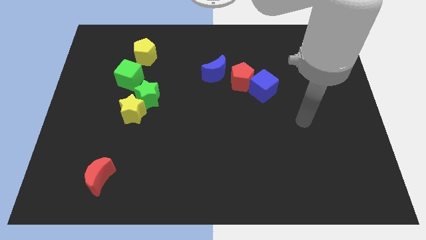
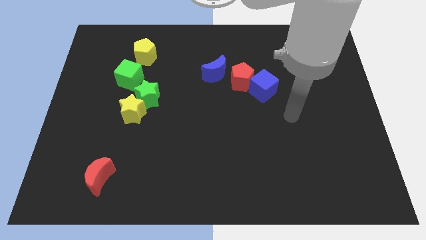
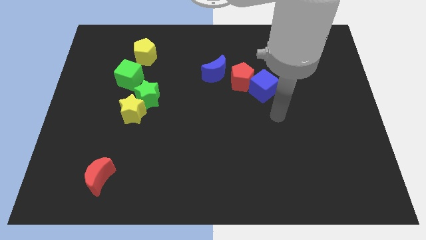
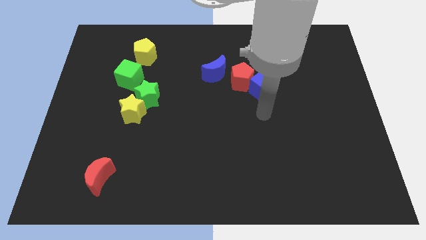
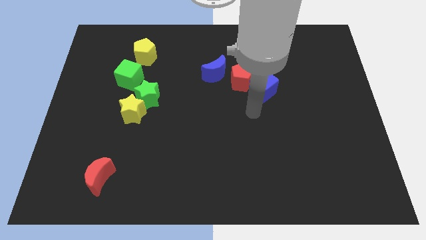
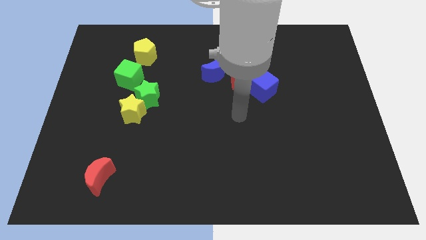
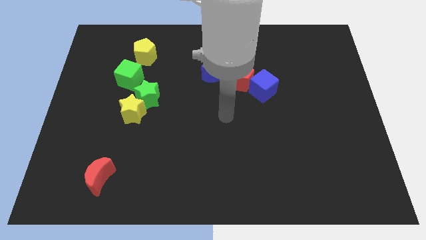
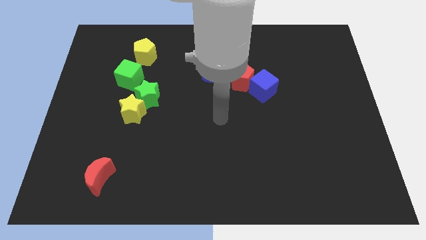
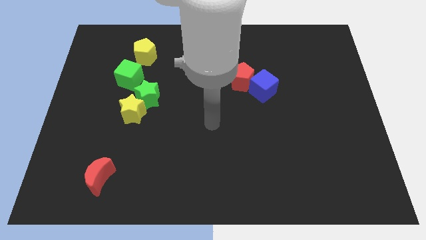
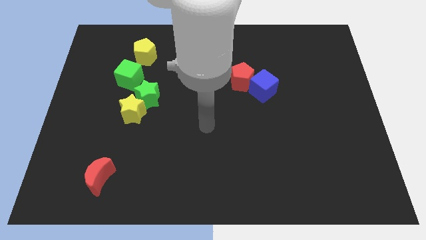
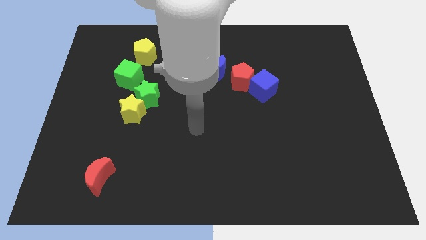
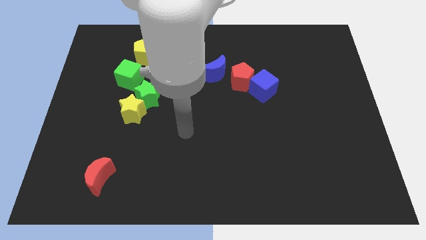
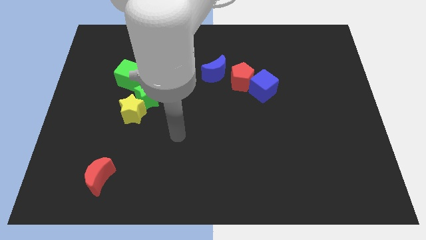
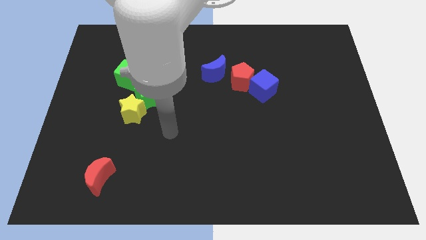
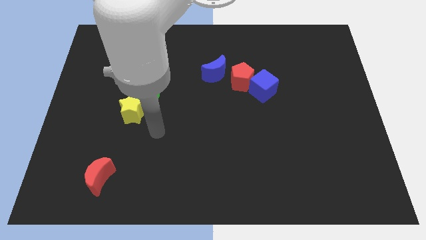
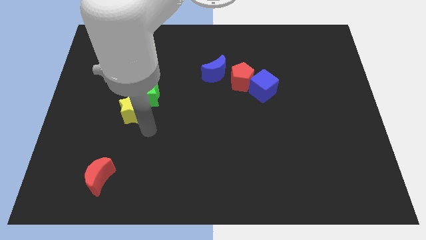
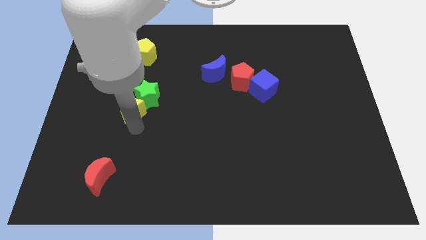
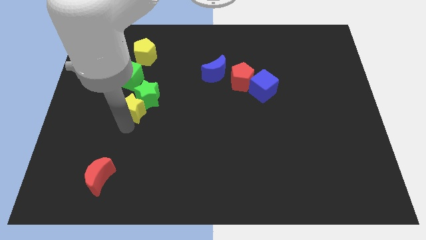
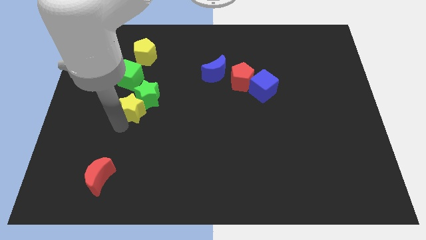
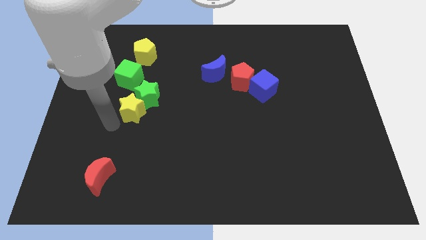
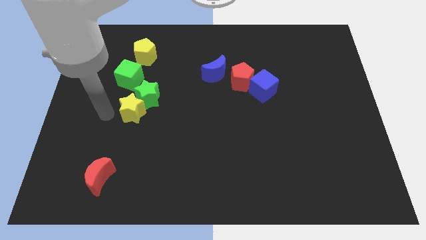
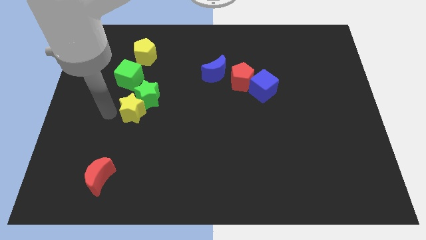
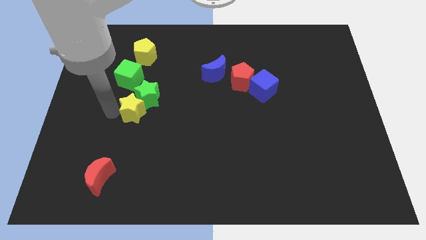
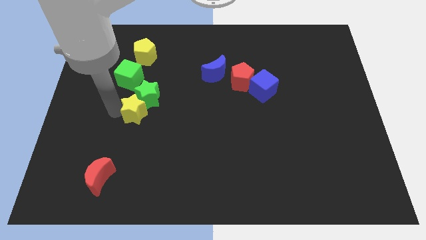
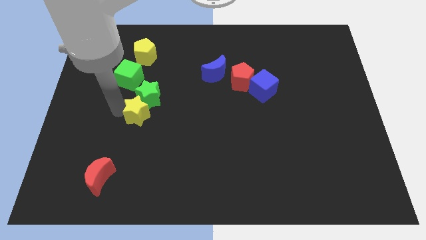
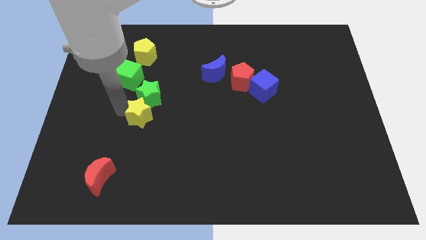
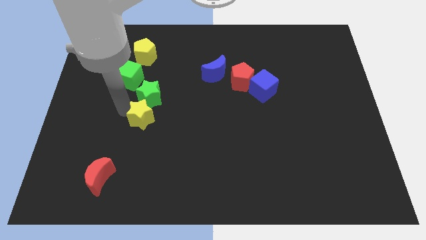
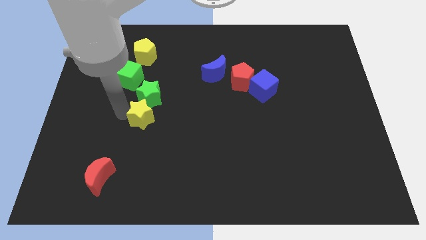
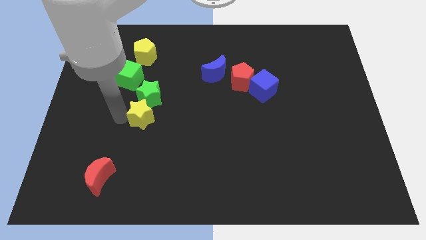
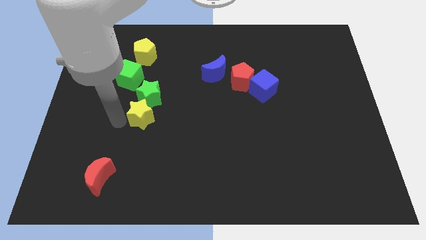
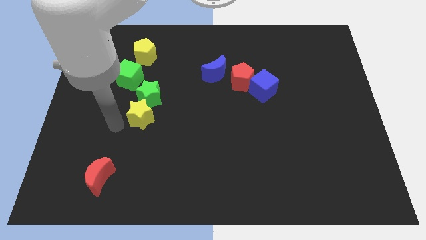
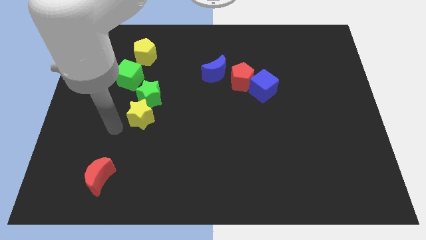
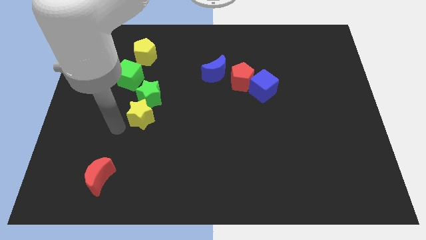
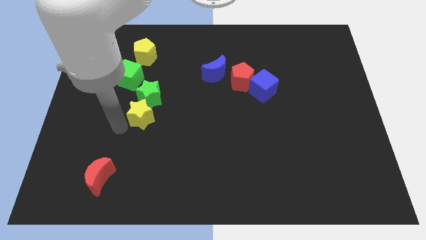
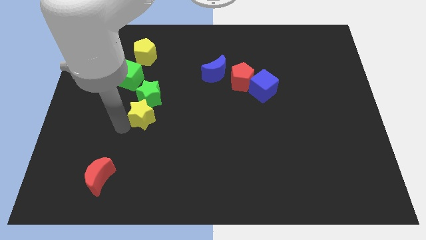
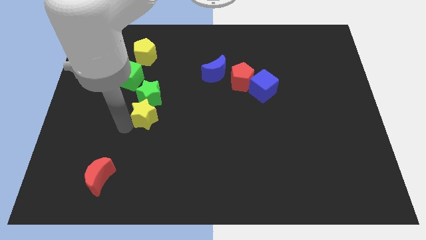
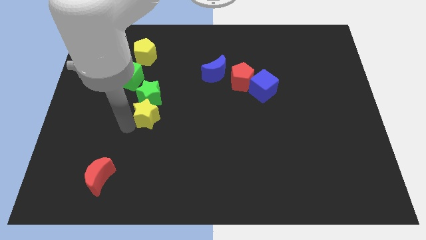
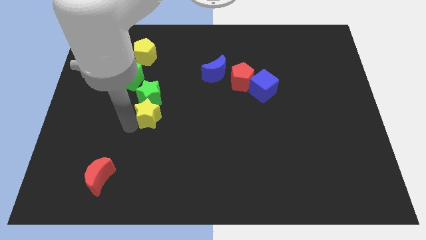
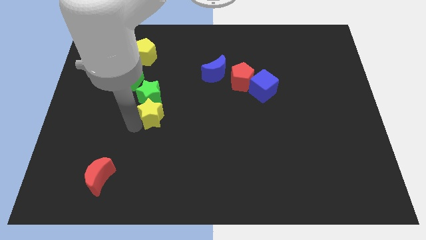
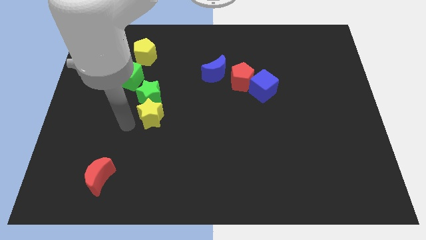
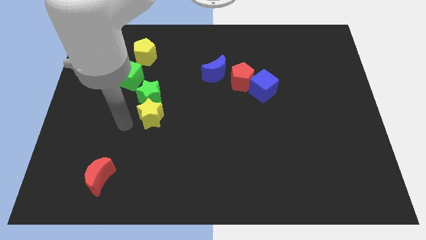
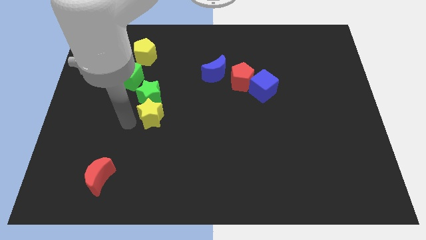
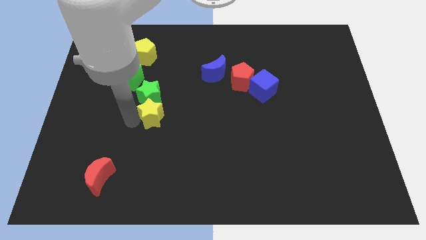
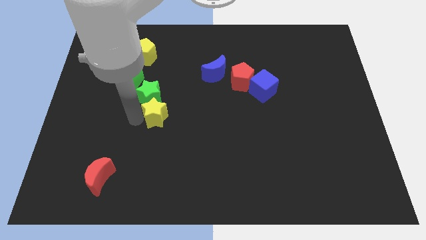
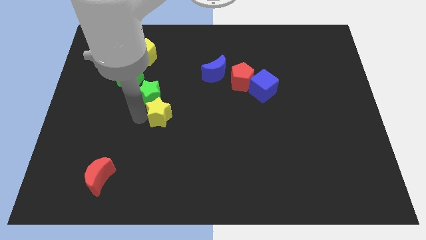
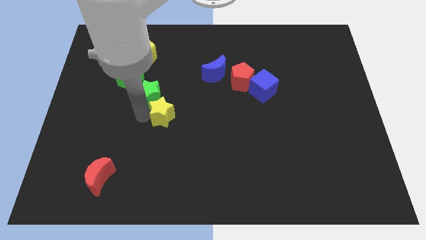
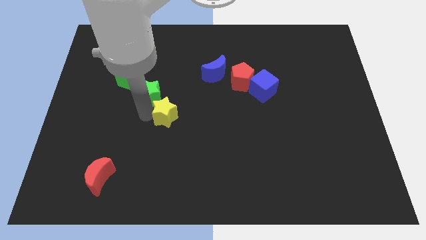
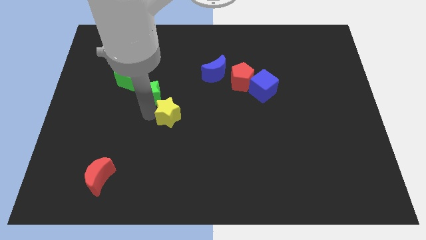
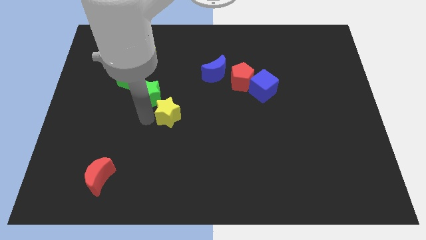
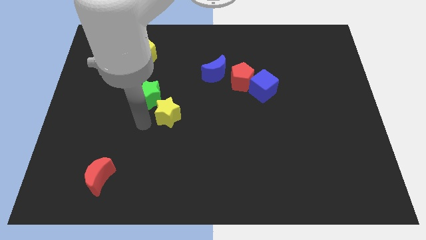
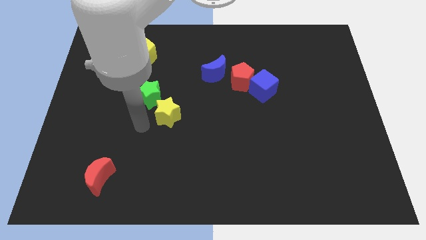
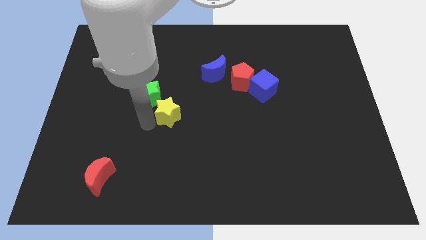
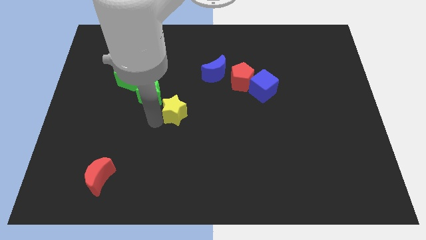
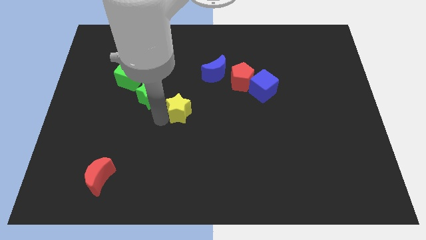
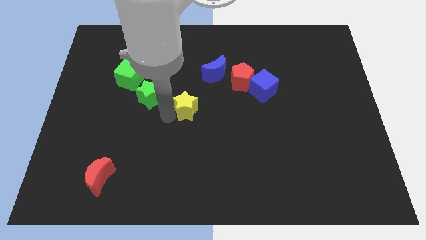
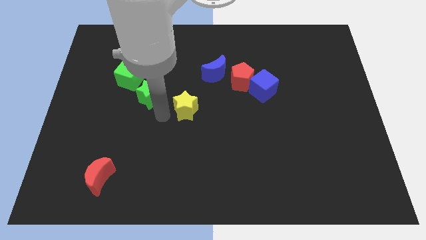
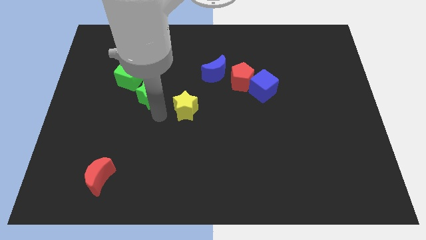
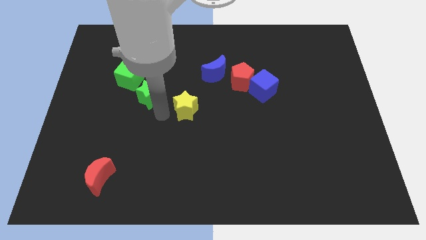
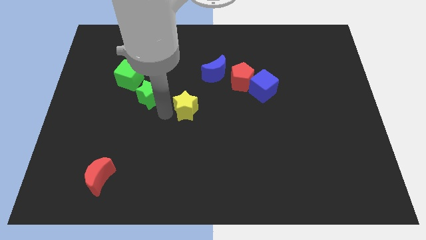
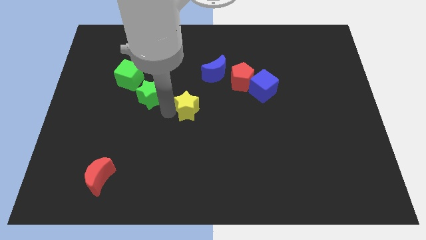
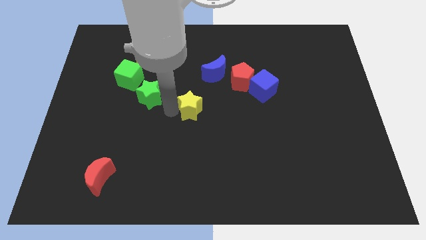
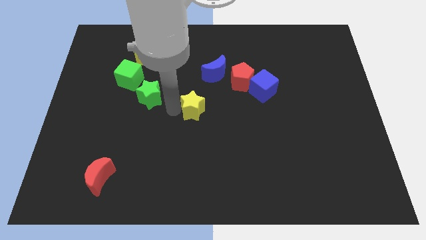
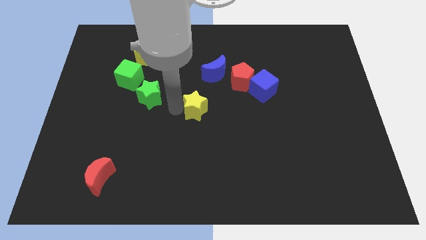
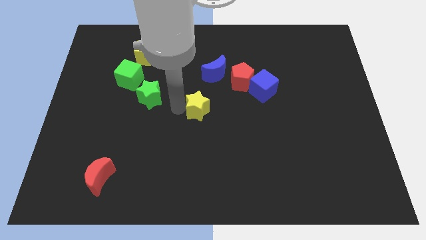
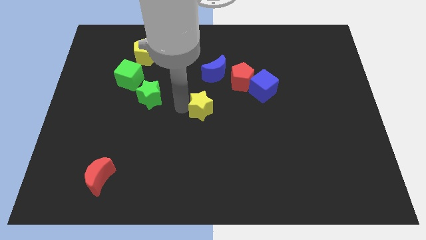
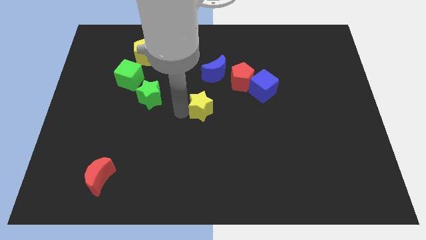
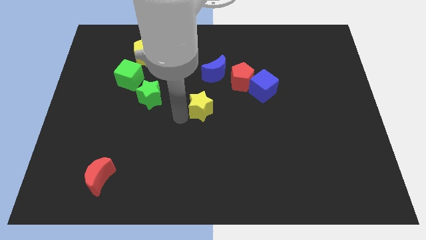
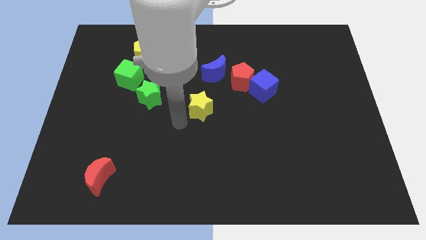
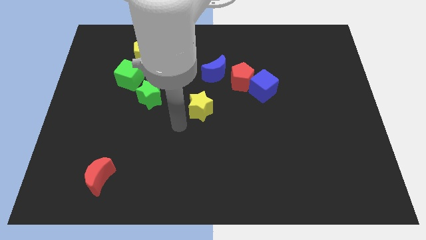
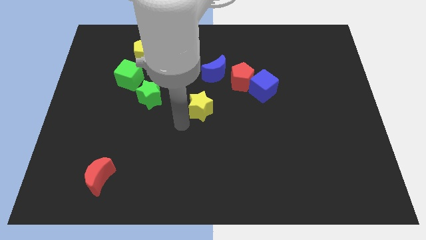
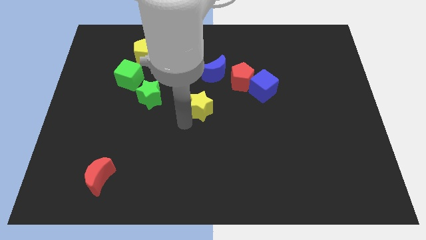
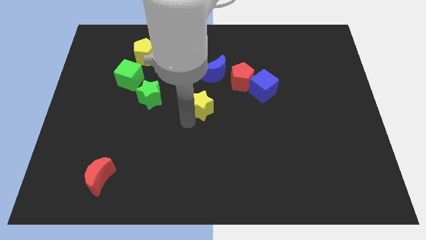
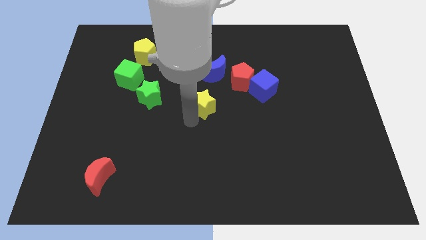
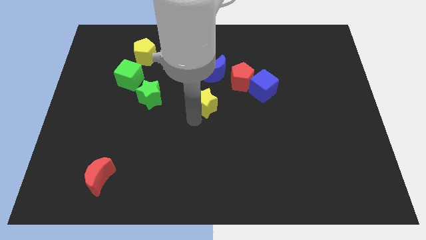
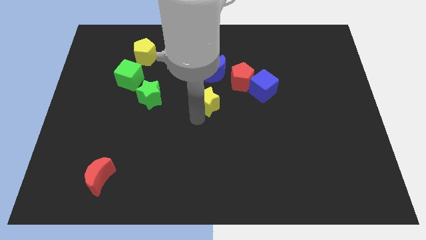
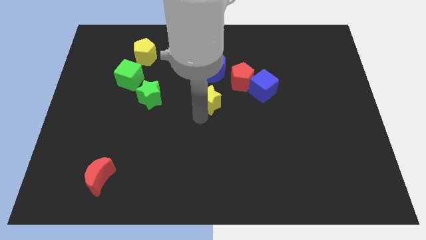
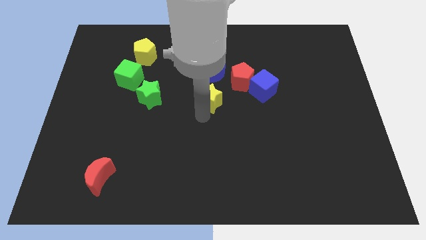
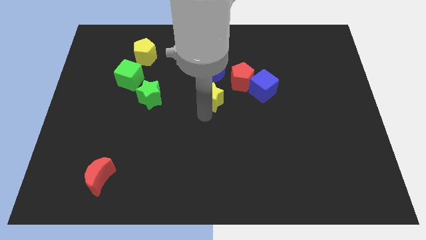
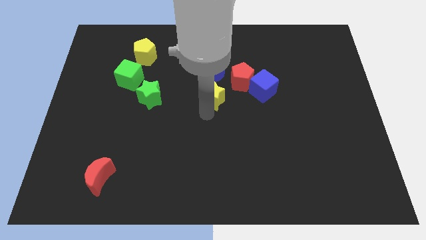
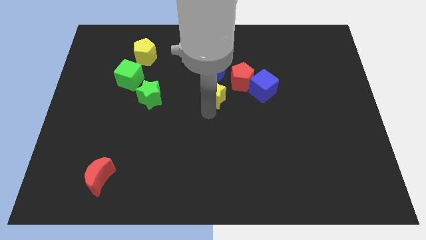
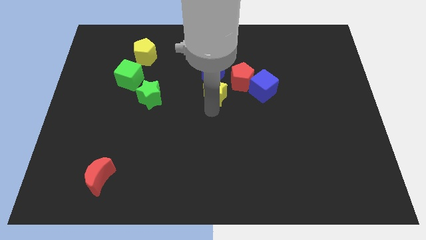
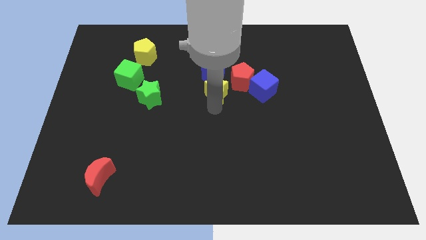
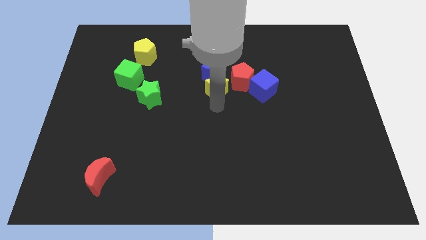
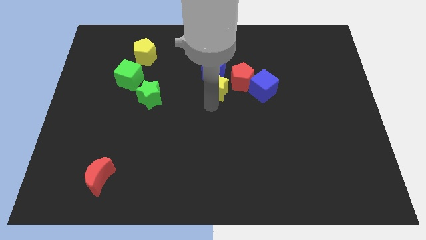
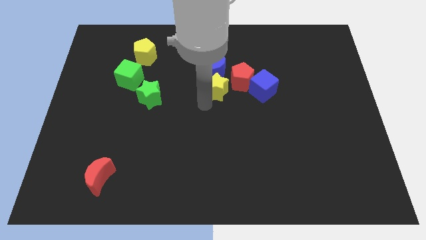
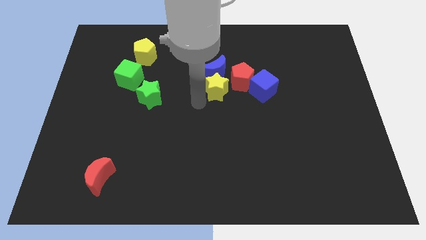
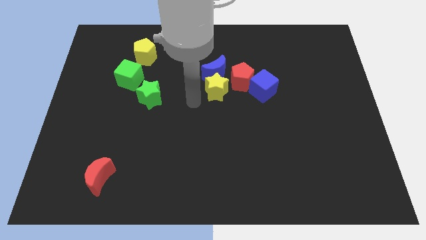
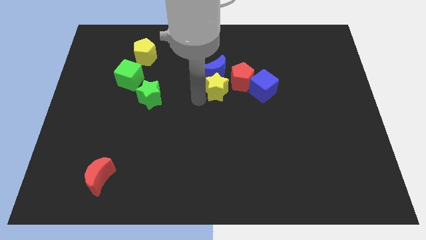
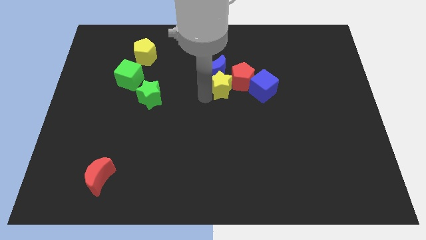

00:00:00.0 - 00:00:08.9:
push the yellow star next to the red pentagon
